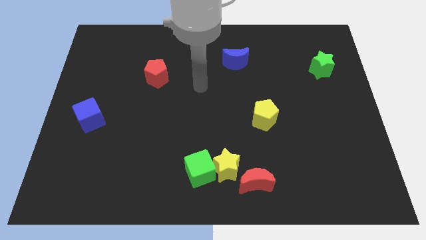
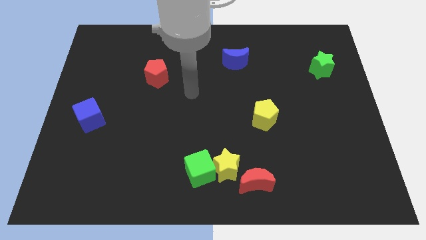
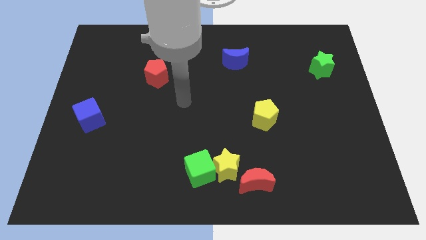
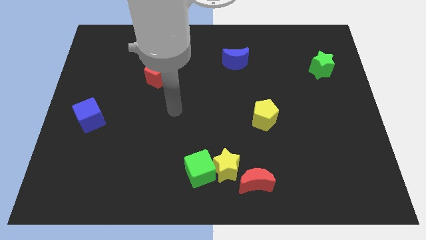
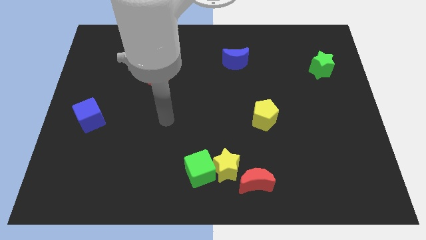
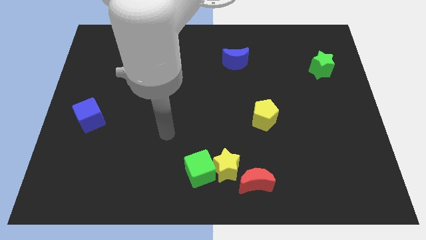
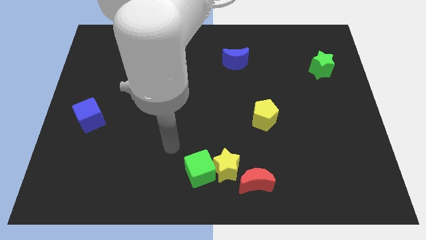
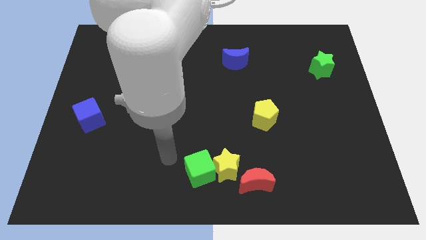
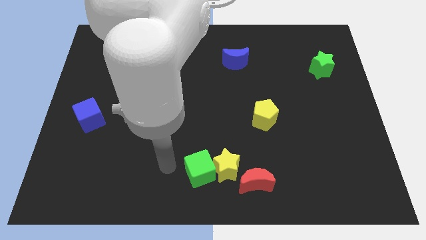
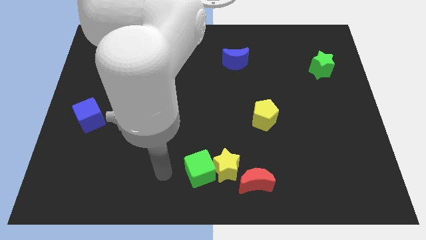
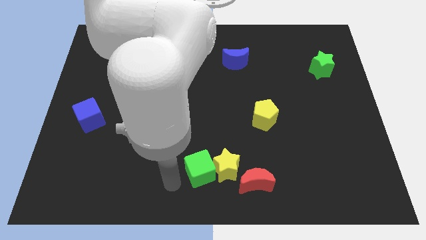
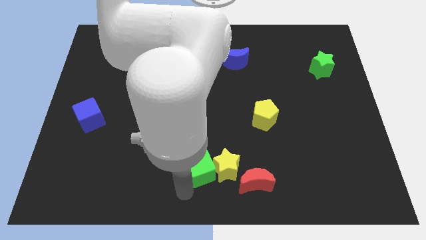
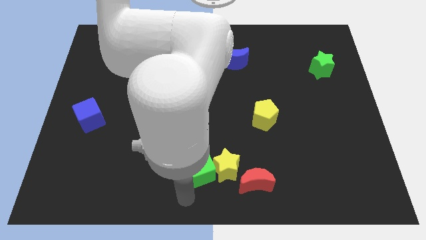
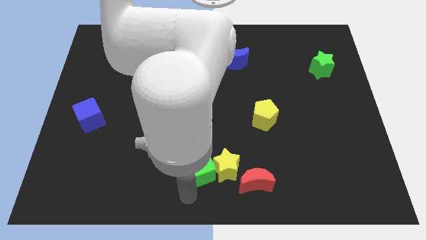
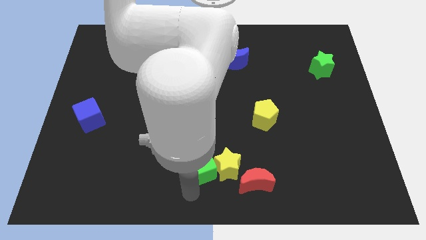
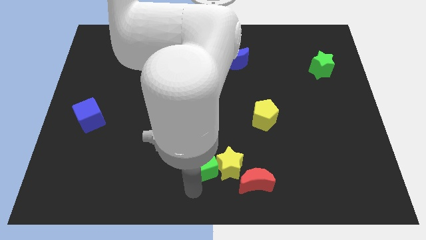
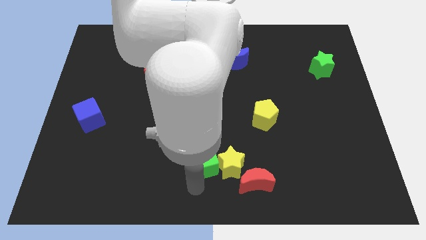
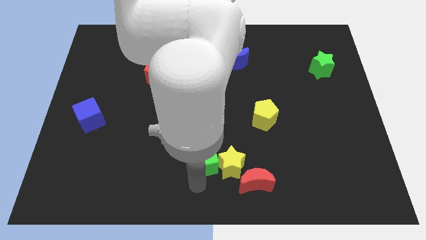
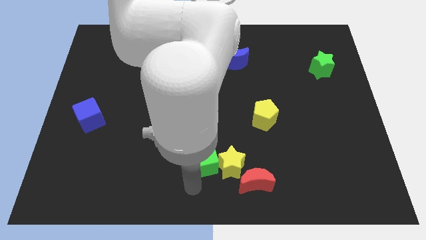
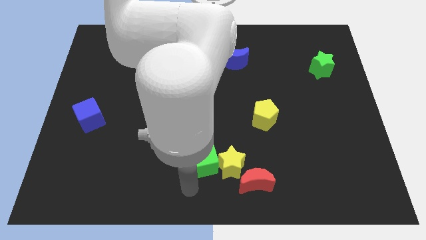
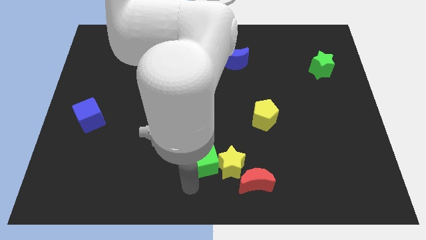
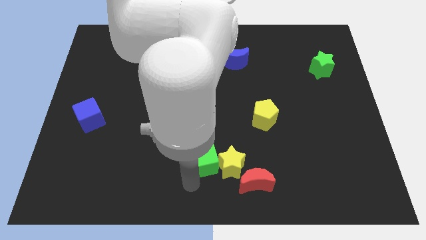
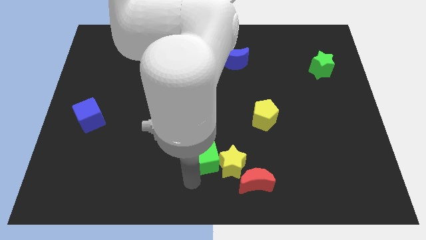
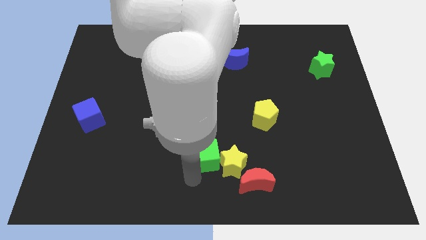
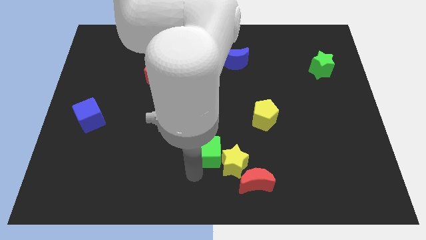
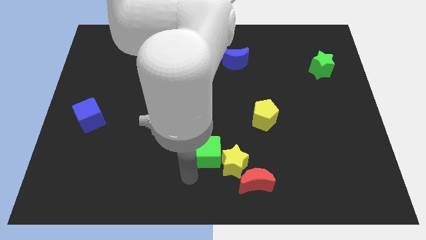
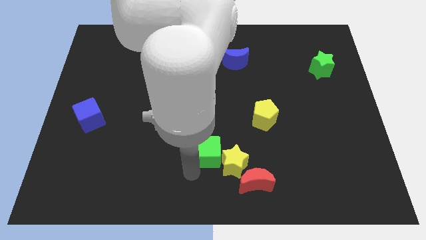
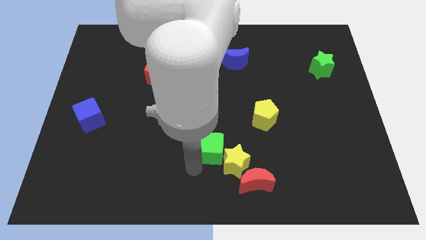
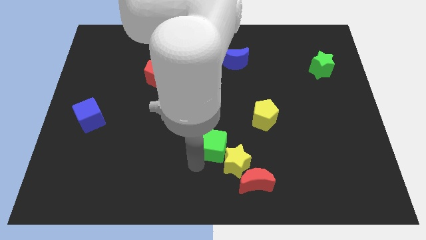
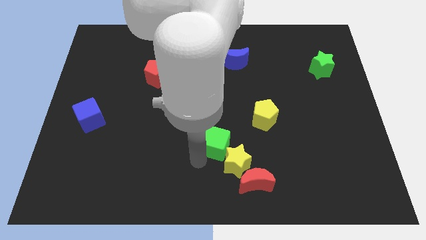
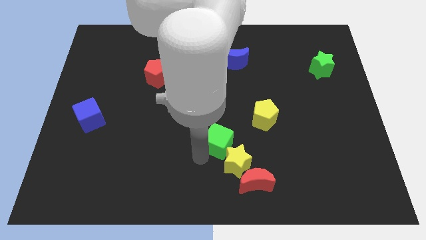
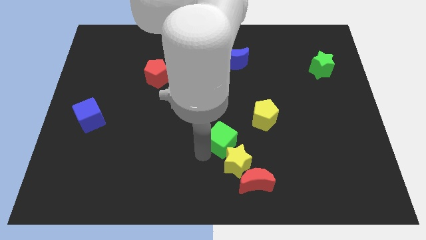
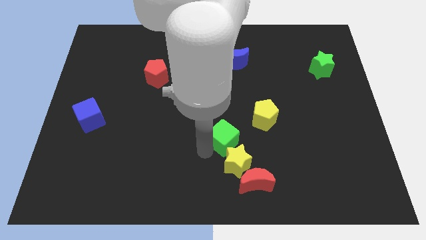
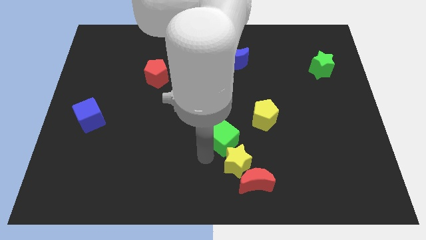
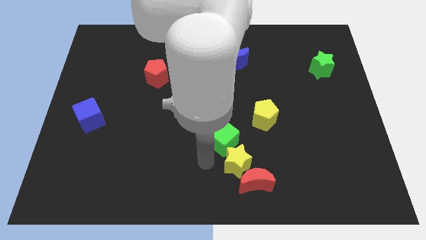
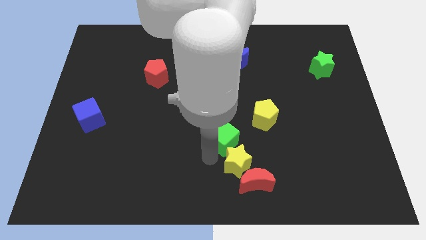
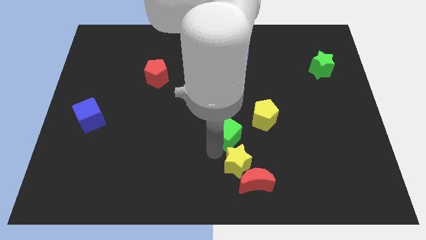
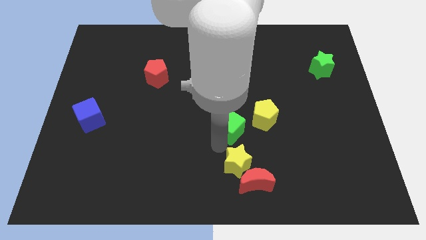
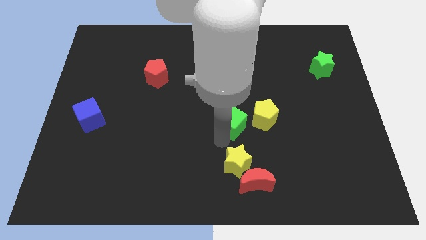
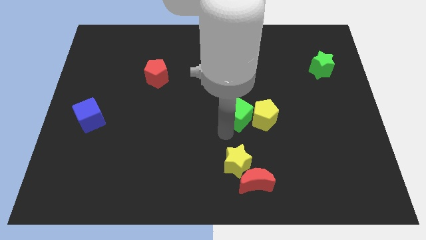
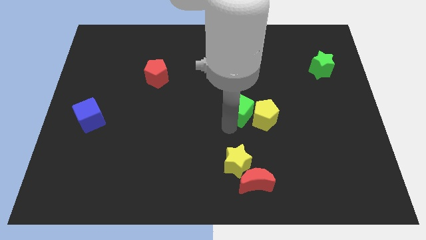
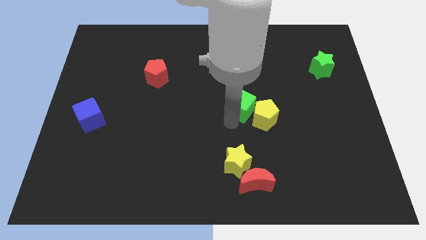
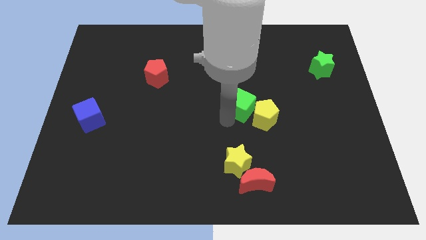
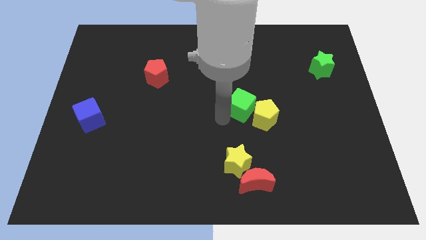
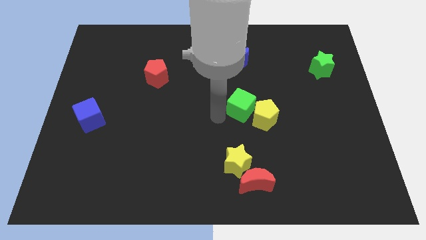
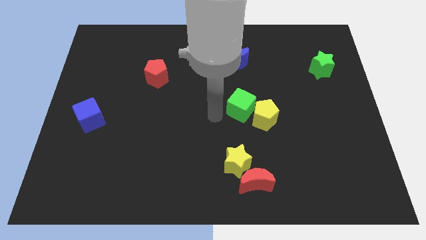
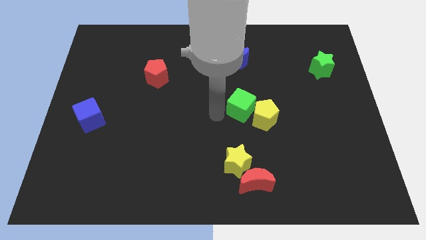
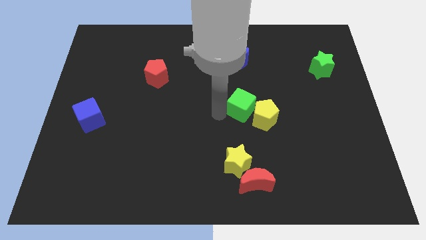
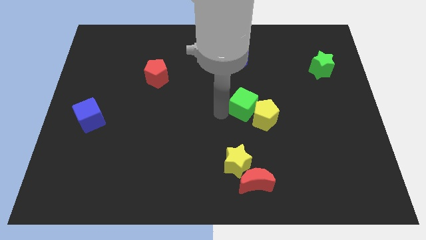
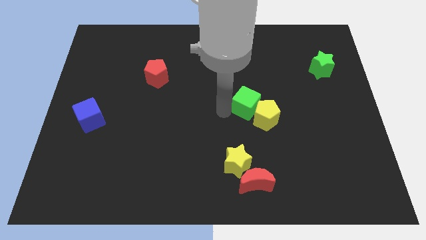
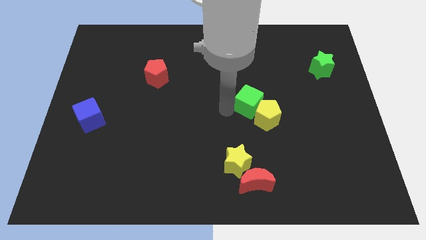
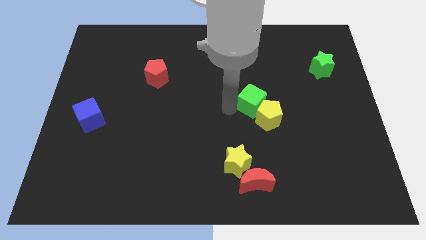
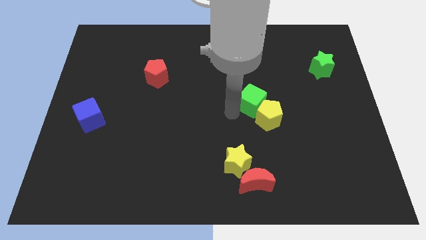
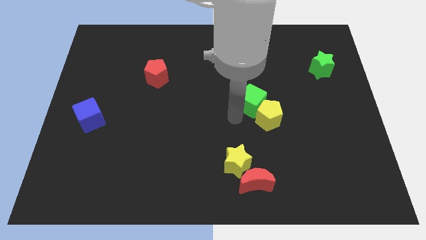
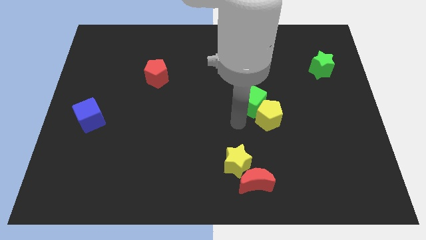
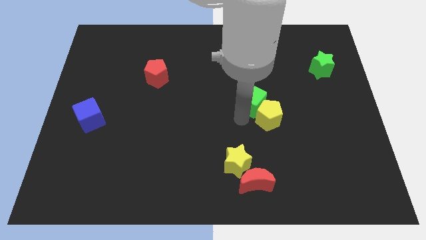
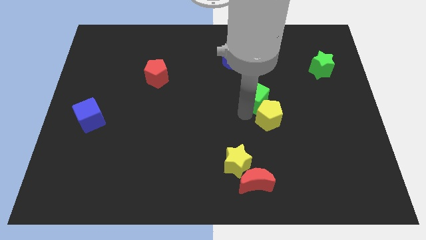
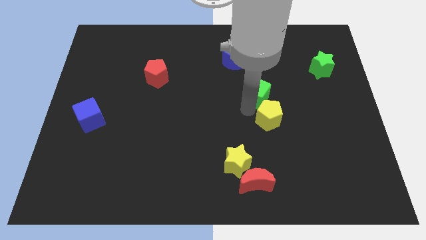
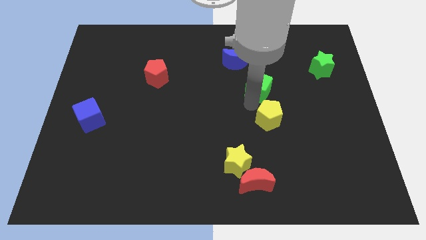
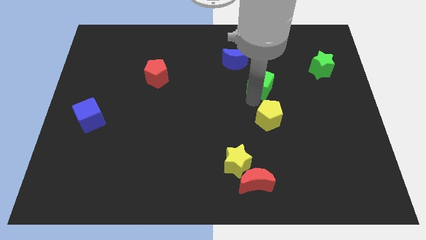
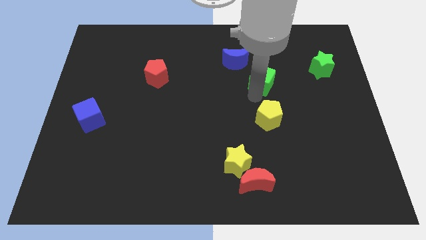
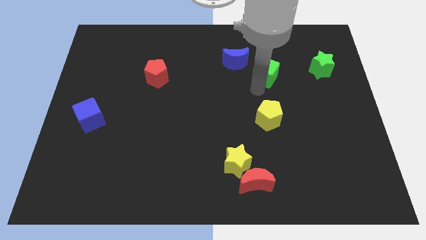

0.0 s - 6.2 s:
put the green cube right of the blue moon
